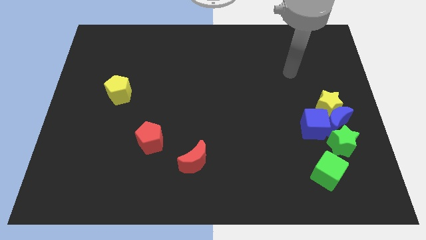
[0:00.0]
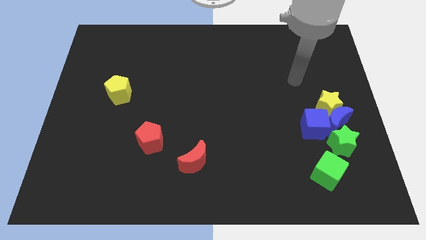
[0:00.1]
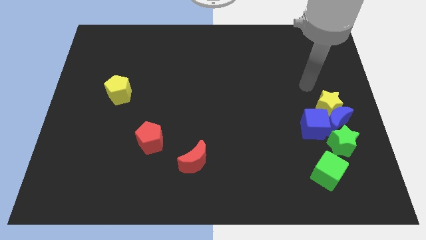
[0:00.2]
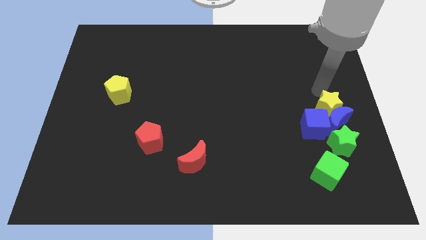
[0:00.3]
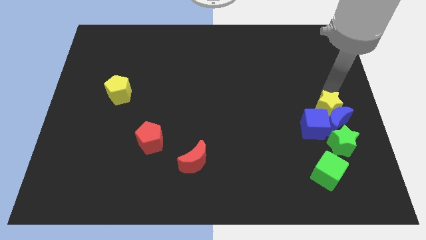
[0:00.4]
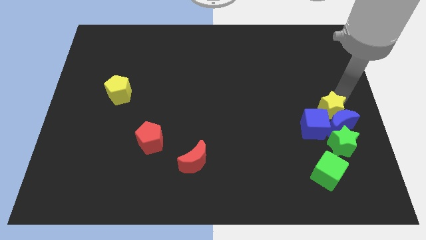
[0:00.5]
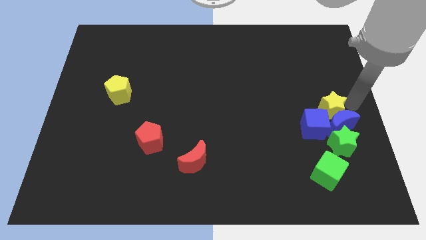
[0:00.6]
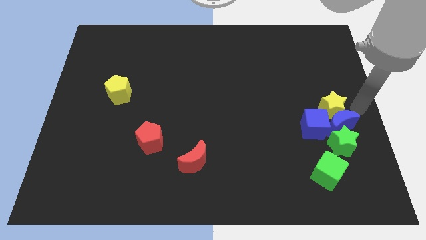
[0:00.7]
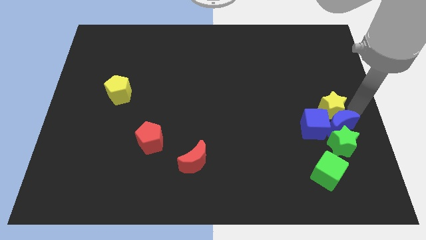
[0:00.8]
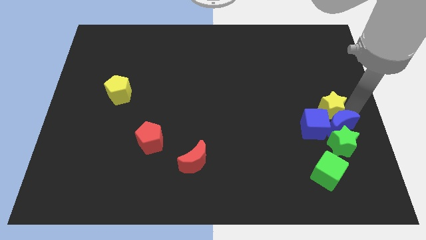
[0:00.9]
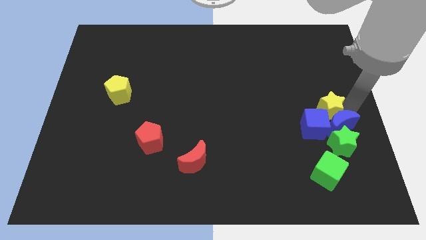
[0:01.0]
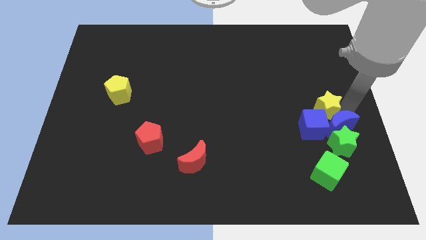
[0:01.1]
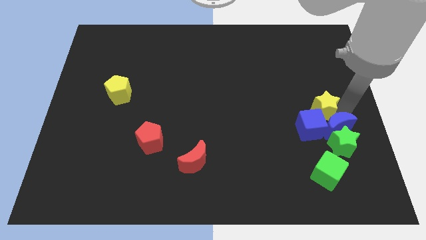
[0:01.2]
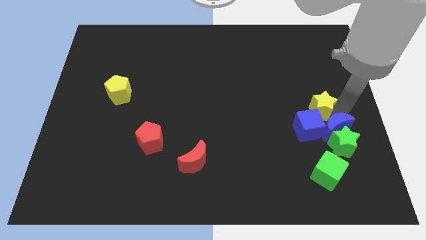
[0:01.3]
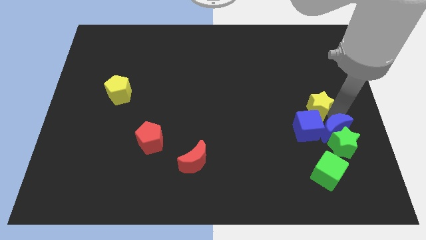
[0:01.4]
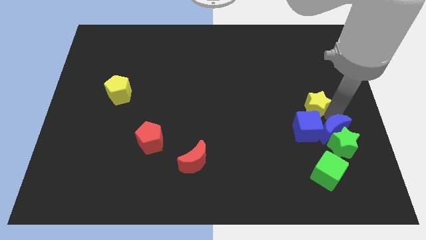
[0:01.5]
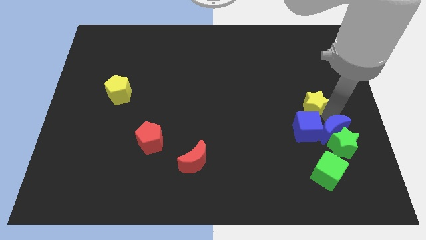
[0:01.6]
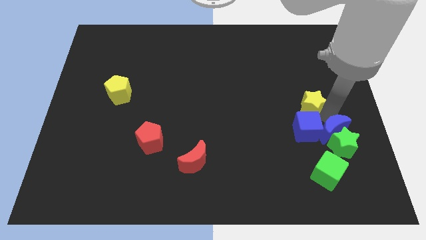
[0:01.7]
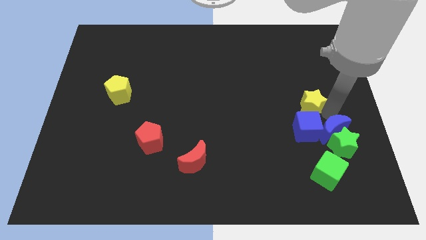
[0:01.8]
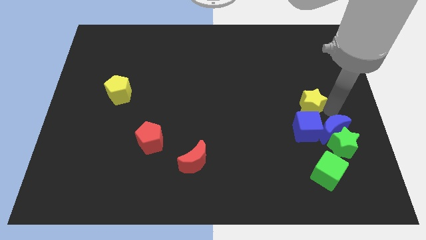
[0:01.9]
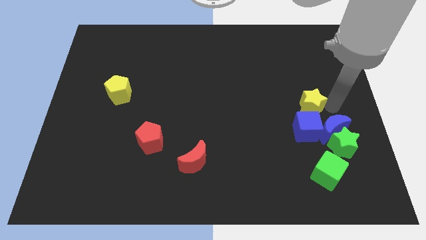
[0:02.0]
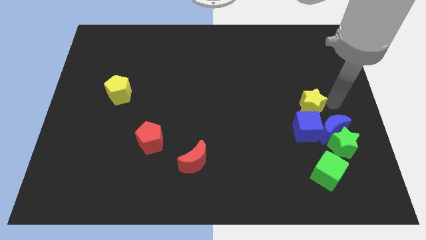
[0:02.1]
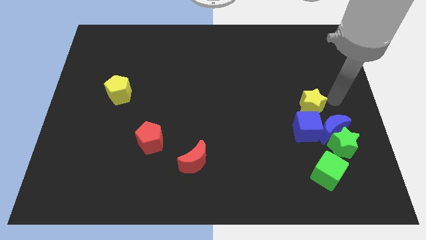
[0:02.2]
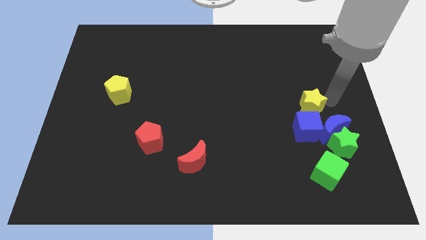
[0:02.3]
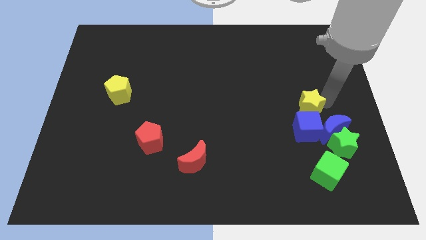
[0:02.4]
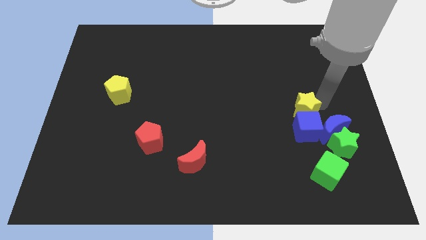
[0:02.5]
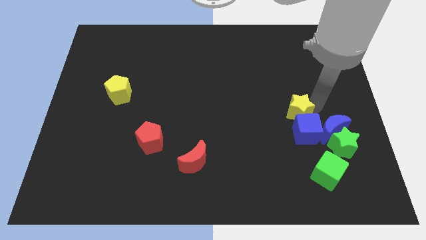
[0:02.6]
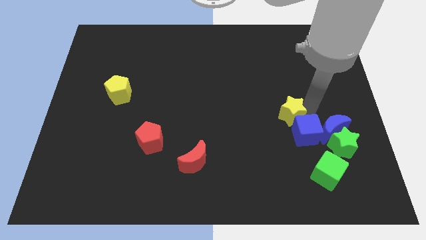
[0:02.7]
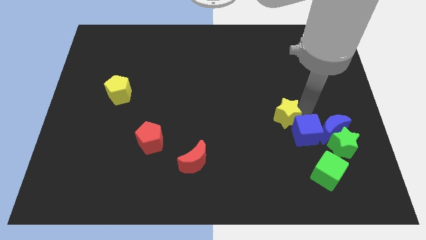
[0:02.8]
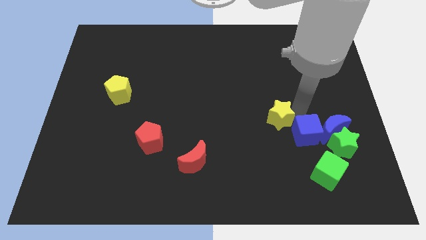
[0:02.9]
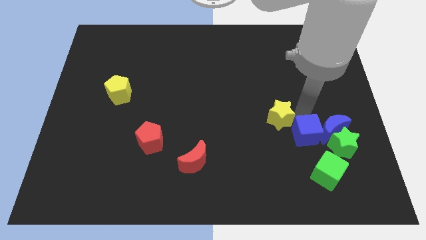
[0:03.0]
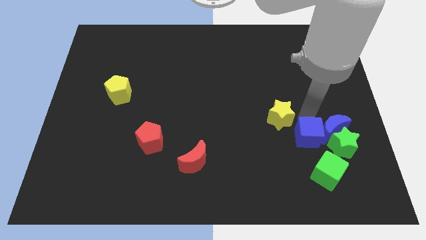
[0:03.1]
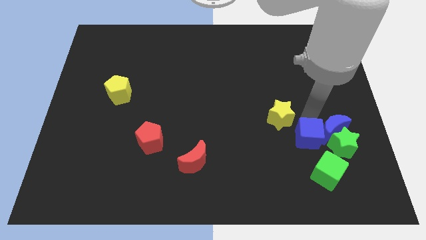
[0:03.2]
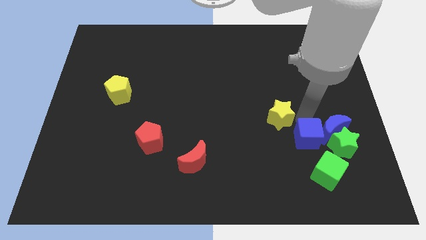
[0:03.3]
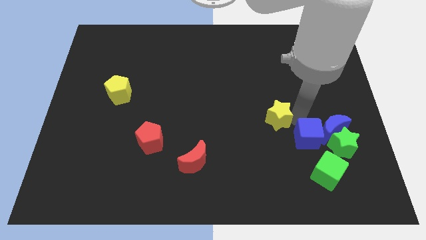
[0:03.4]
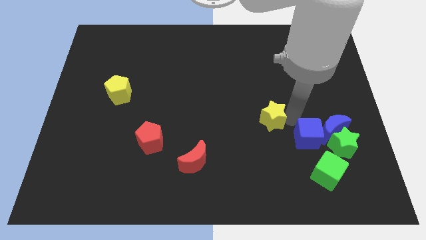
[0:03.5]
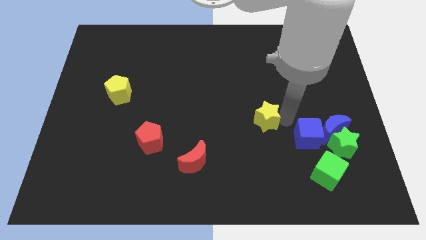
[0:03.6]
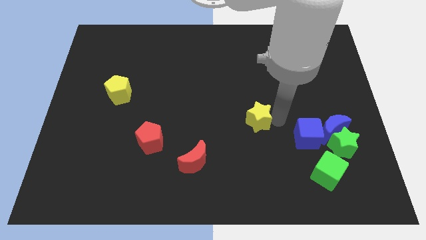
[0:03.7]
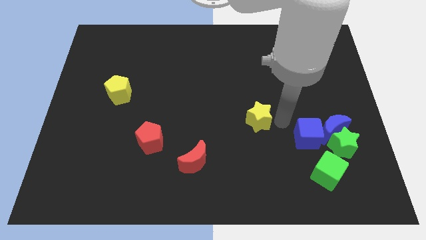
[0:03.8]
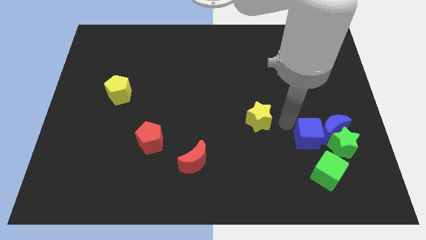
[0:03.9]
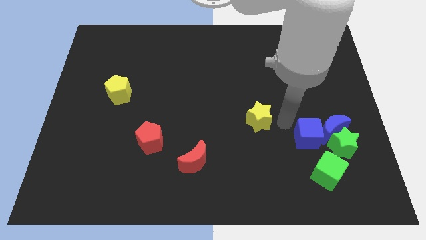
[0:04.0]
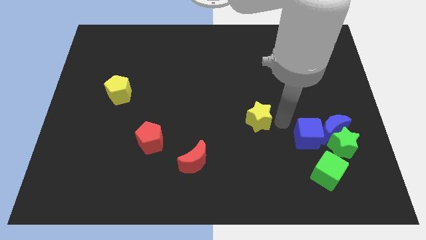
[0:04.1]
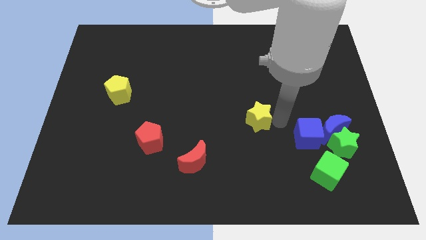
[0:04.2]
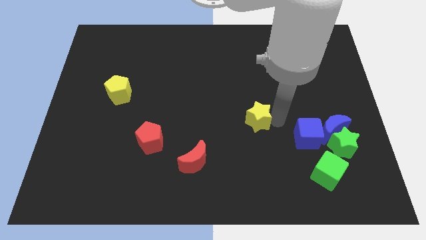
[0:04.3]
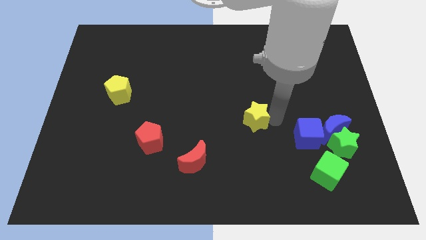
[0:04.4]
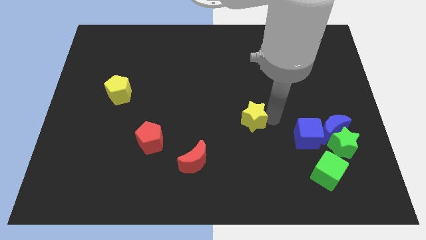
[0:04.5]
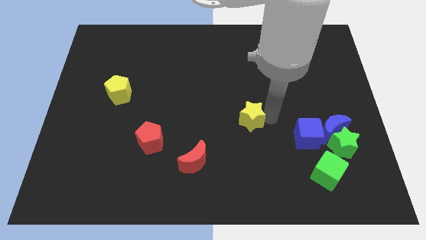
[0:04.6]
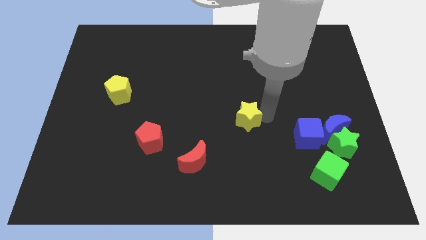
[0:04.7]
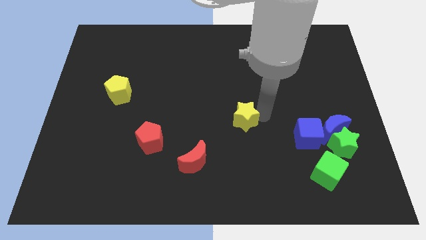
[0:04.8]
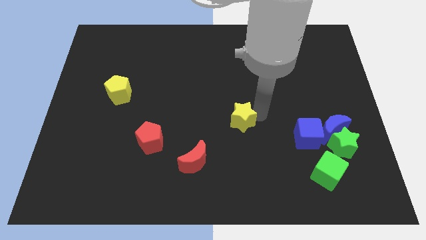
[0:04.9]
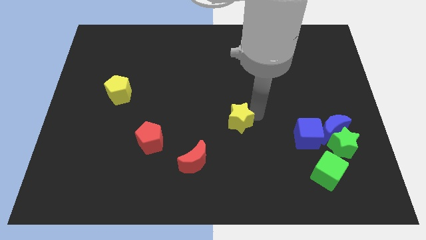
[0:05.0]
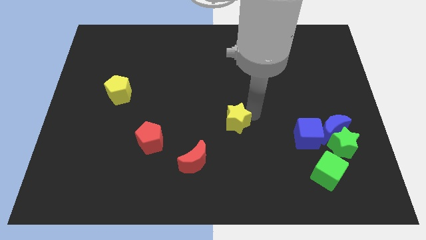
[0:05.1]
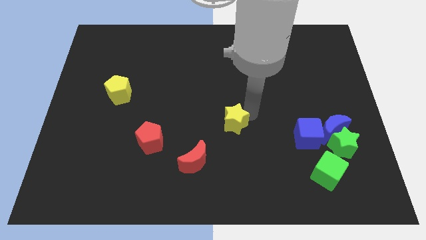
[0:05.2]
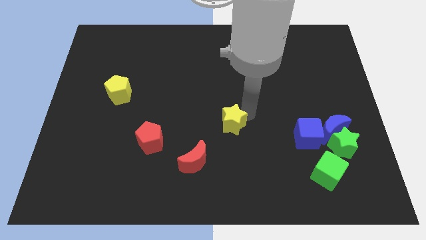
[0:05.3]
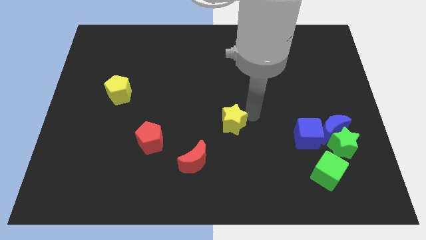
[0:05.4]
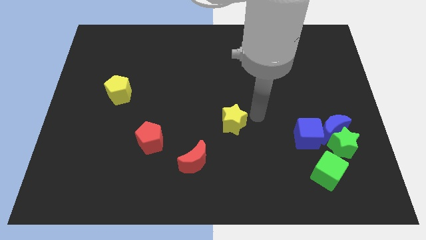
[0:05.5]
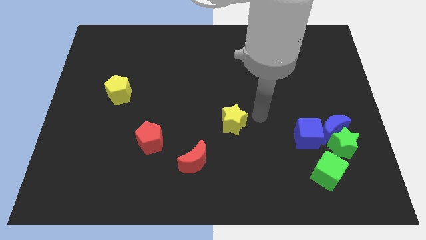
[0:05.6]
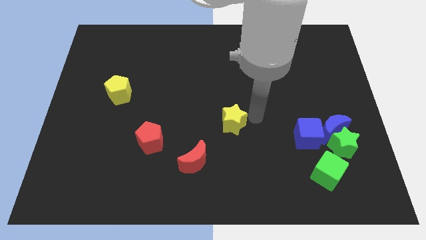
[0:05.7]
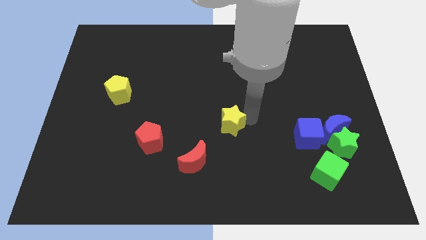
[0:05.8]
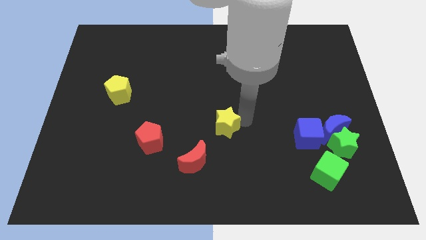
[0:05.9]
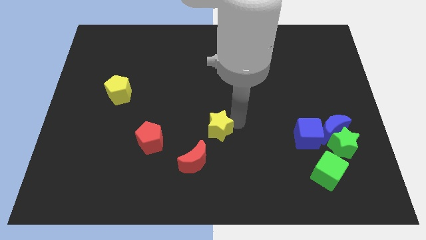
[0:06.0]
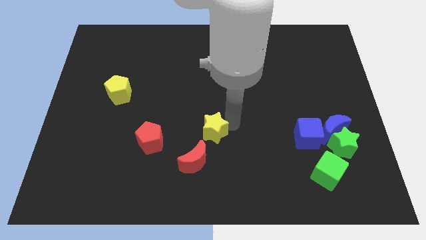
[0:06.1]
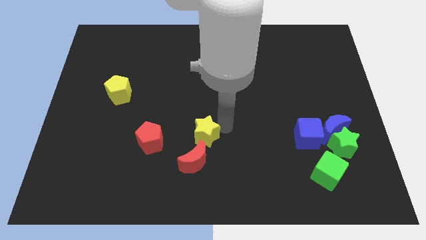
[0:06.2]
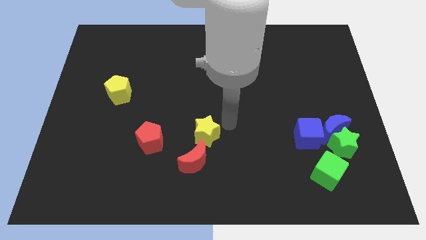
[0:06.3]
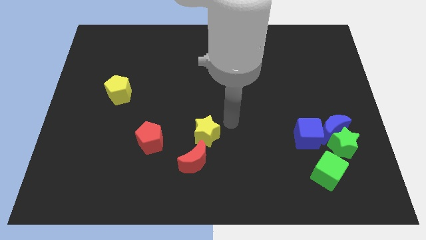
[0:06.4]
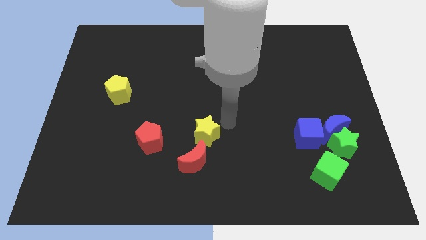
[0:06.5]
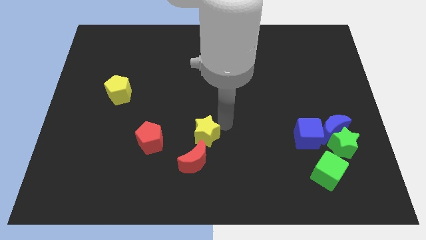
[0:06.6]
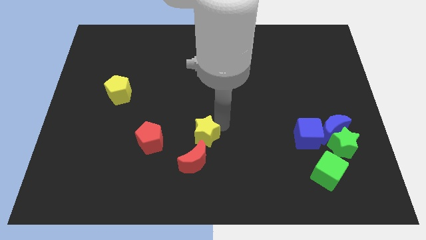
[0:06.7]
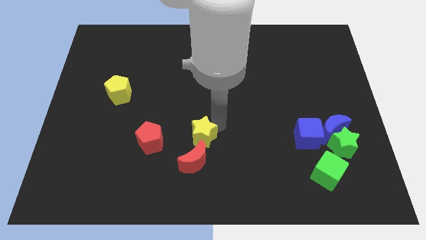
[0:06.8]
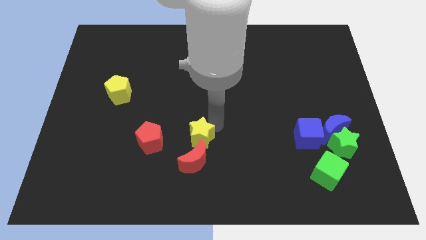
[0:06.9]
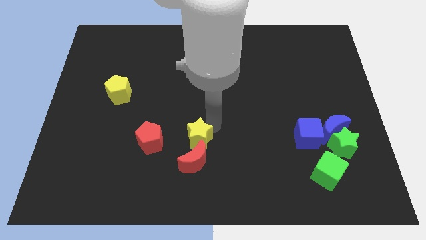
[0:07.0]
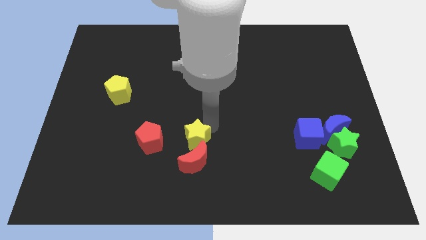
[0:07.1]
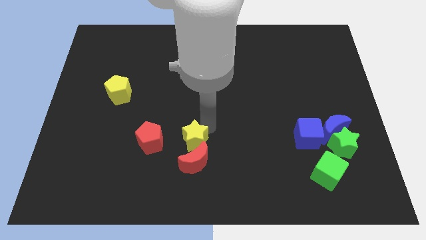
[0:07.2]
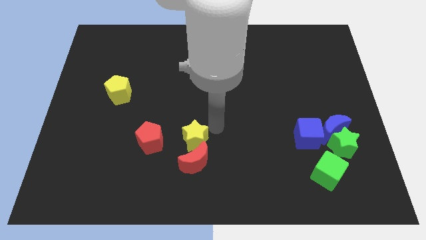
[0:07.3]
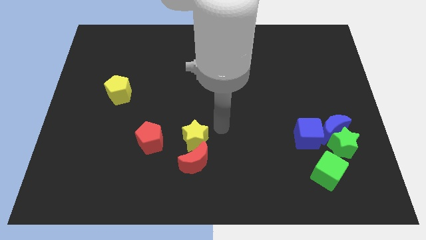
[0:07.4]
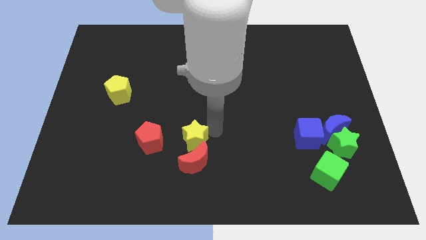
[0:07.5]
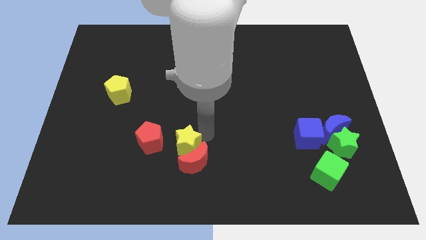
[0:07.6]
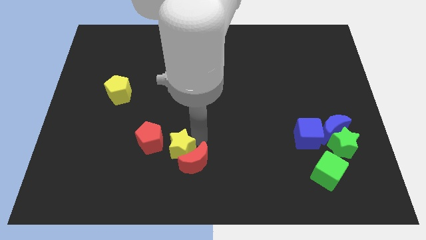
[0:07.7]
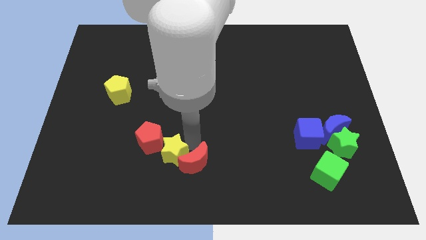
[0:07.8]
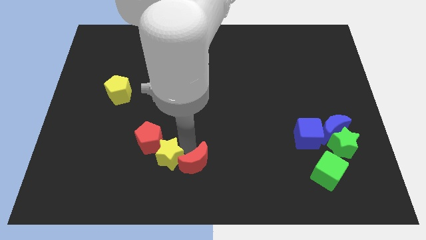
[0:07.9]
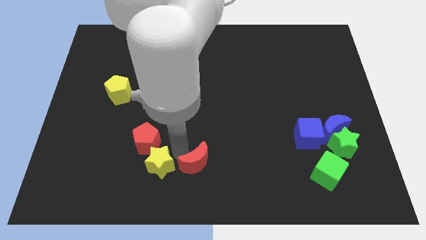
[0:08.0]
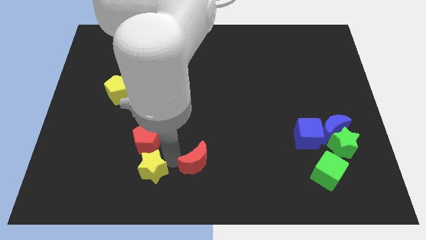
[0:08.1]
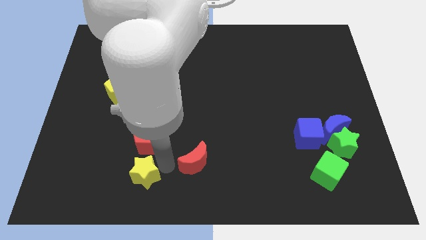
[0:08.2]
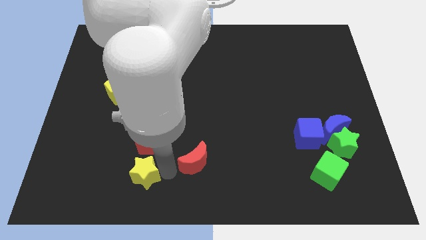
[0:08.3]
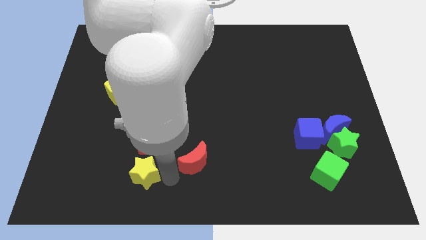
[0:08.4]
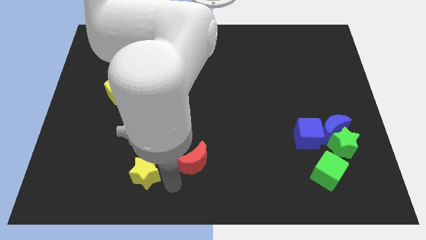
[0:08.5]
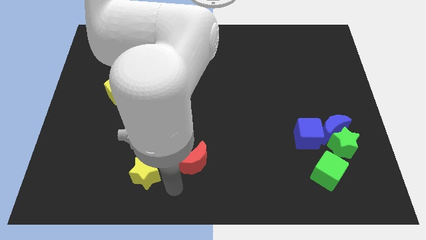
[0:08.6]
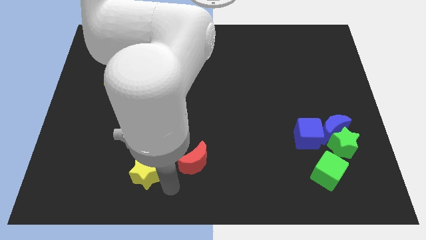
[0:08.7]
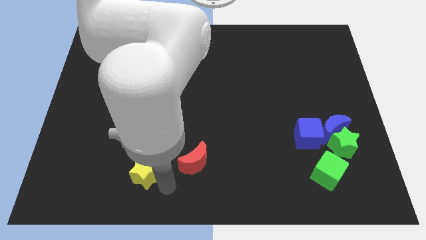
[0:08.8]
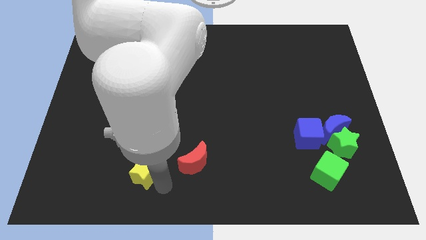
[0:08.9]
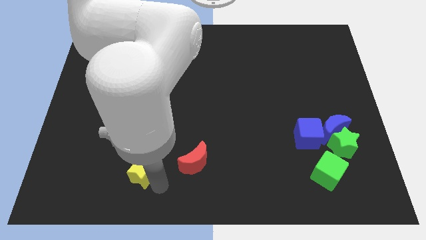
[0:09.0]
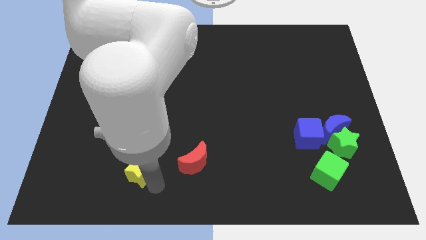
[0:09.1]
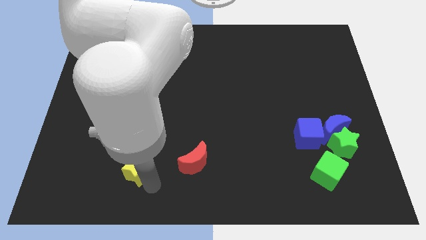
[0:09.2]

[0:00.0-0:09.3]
push the yellow star diagonally down and to the left of the red pentagon
